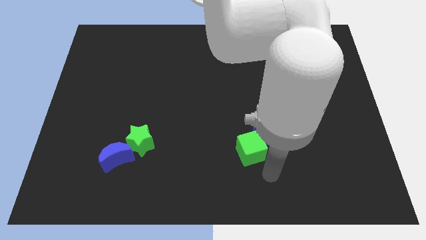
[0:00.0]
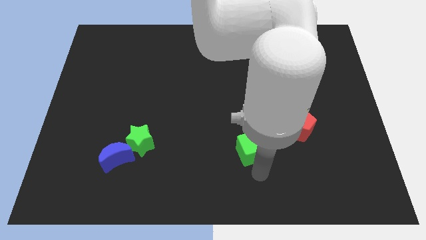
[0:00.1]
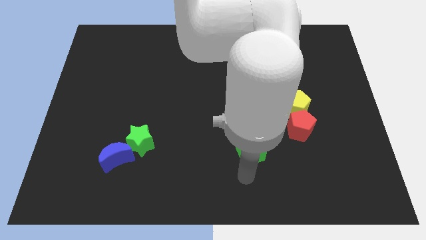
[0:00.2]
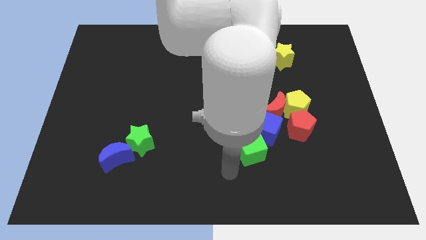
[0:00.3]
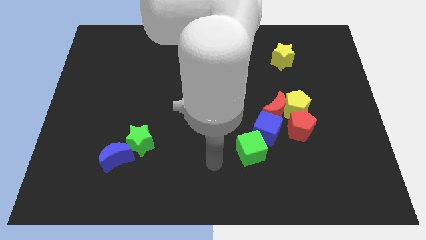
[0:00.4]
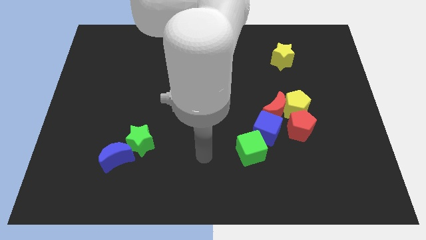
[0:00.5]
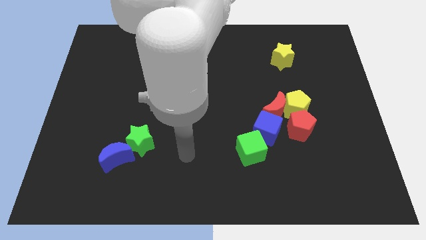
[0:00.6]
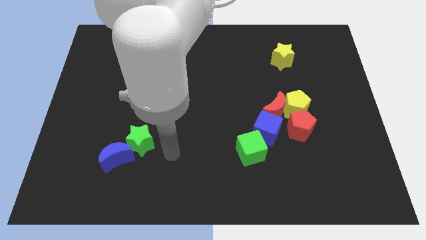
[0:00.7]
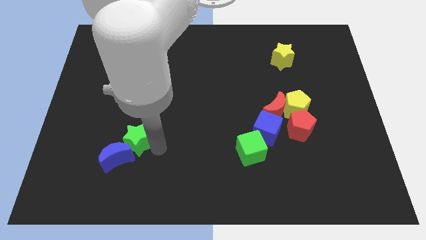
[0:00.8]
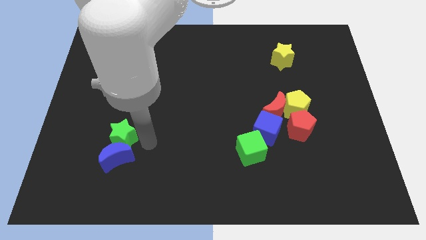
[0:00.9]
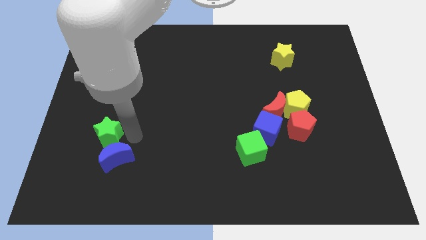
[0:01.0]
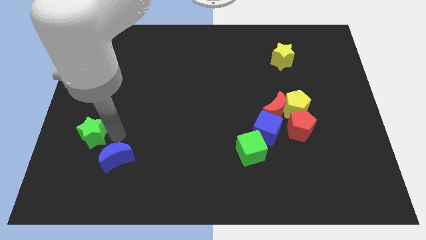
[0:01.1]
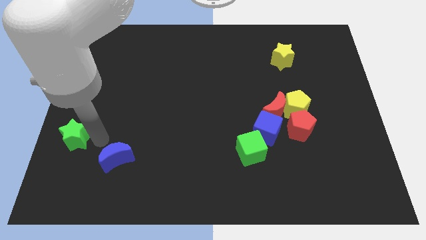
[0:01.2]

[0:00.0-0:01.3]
move the blue moon away from the green star

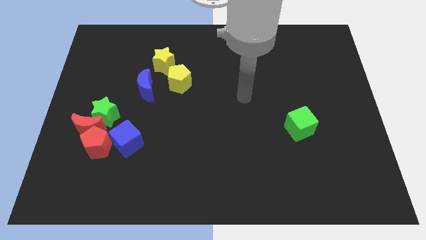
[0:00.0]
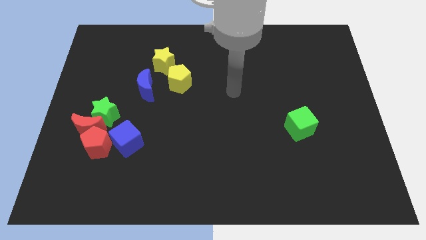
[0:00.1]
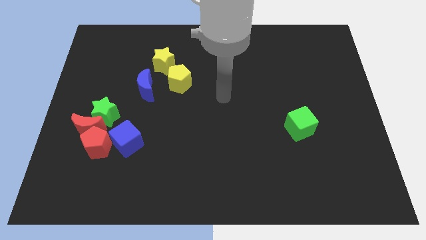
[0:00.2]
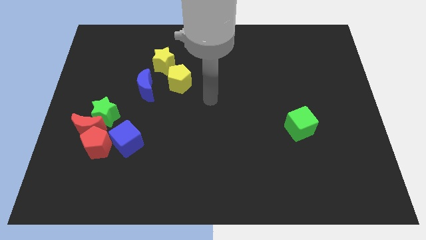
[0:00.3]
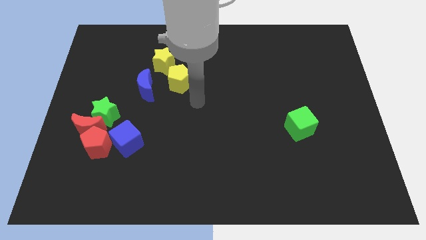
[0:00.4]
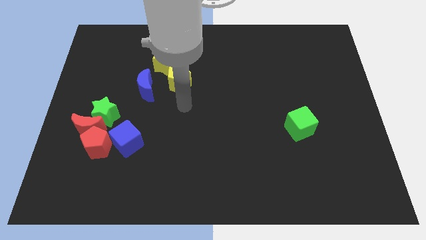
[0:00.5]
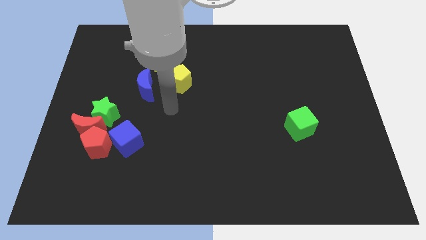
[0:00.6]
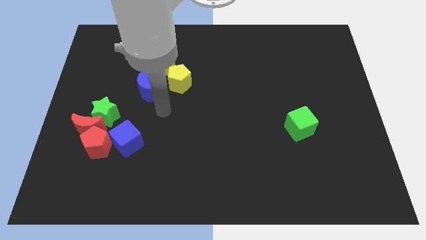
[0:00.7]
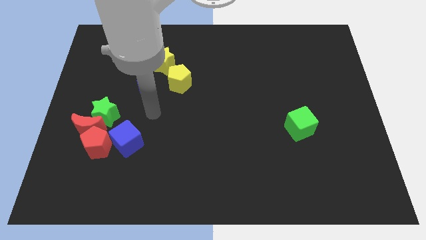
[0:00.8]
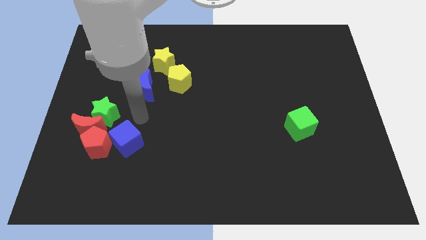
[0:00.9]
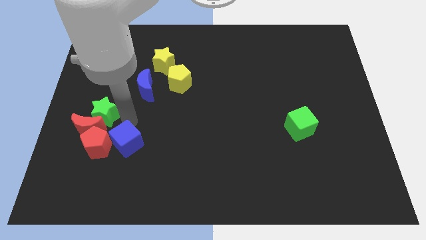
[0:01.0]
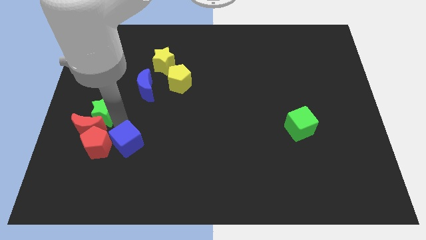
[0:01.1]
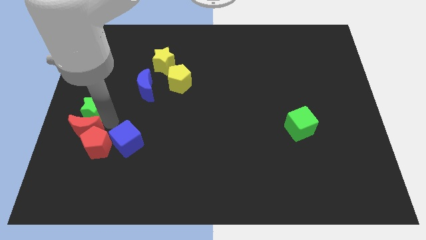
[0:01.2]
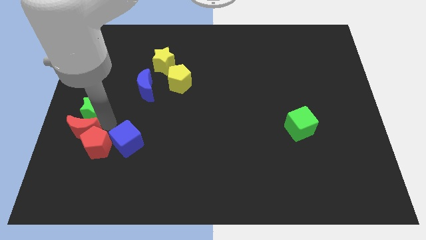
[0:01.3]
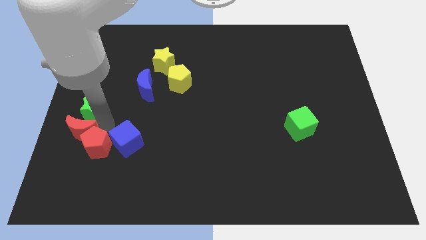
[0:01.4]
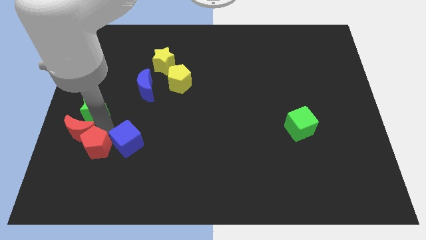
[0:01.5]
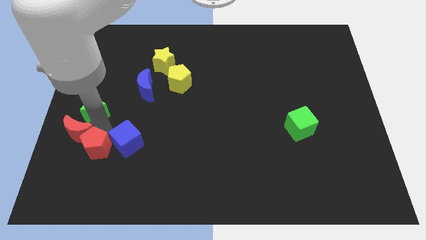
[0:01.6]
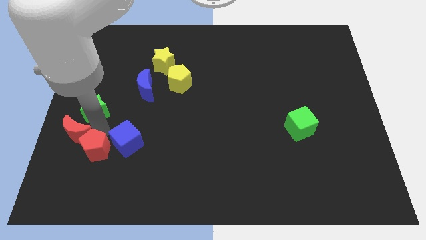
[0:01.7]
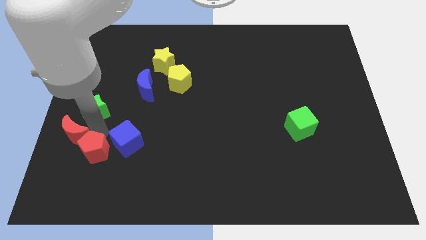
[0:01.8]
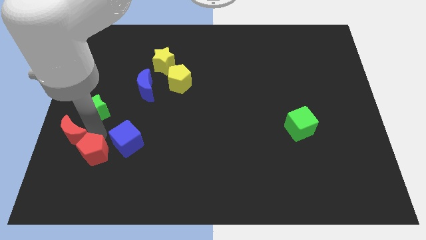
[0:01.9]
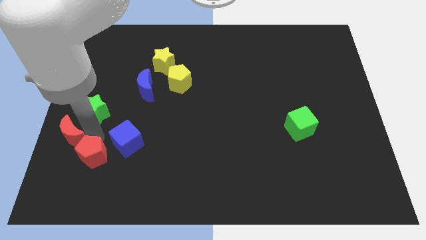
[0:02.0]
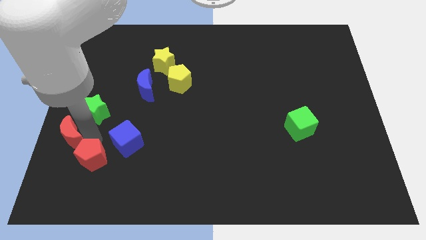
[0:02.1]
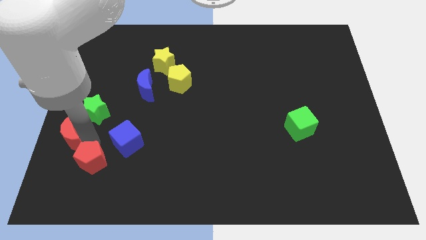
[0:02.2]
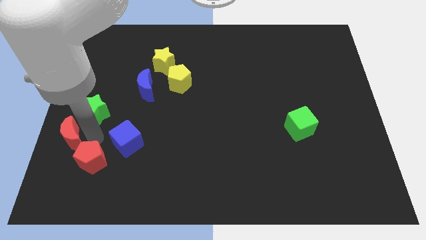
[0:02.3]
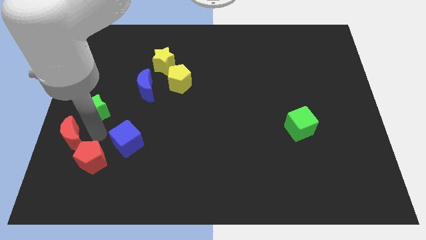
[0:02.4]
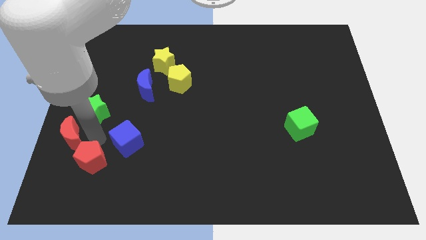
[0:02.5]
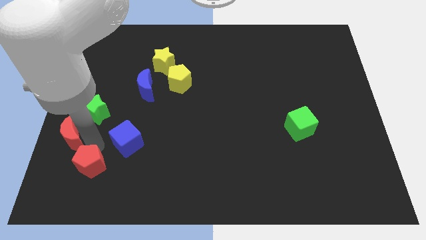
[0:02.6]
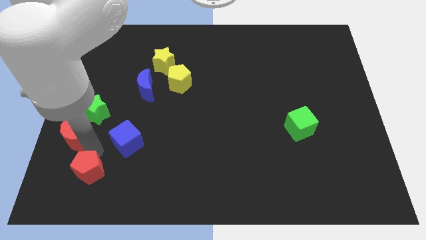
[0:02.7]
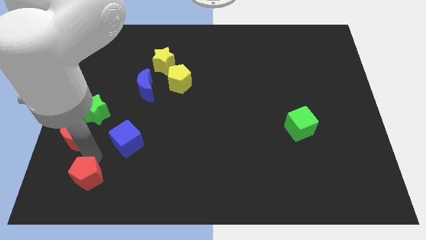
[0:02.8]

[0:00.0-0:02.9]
move the red pentagon away from the red moon, blue cube, and green star

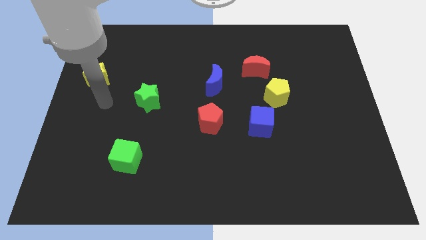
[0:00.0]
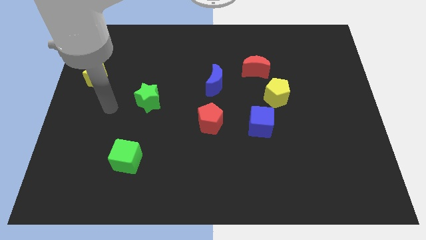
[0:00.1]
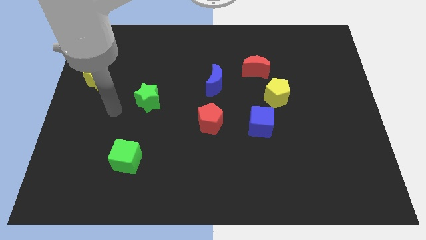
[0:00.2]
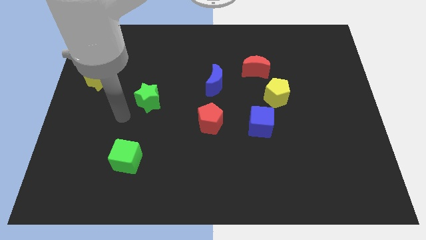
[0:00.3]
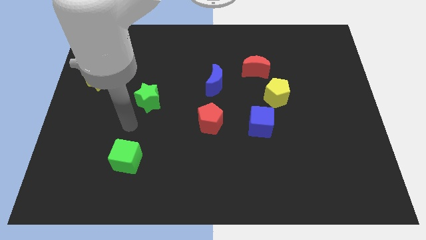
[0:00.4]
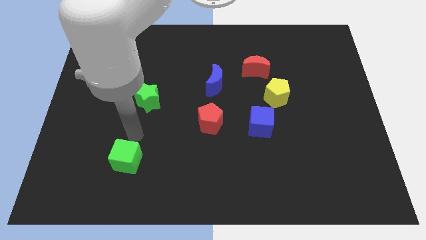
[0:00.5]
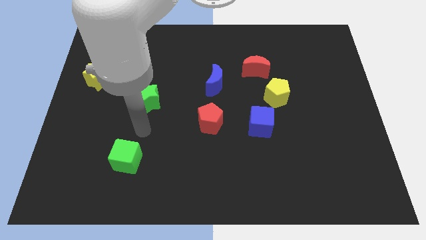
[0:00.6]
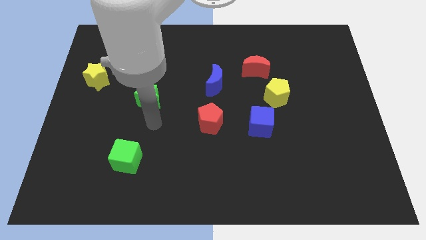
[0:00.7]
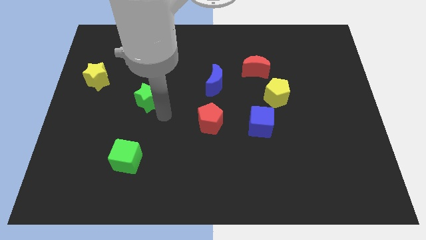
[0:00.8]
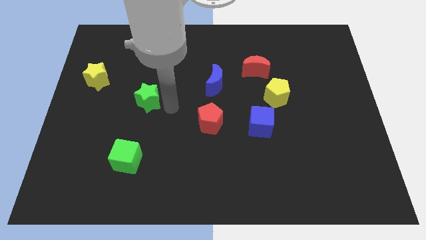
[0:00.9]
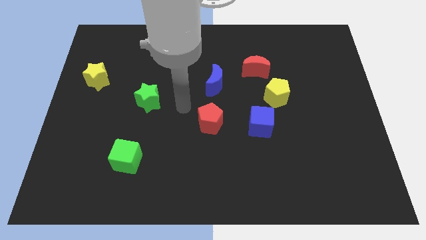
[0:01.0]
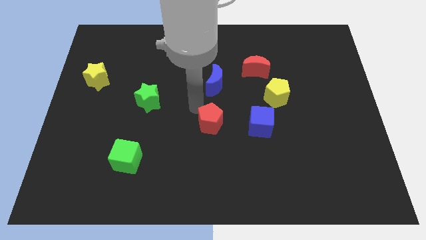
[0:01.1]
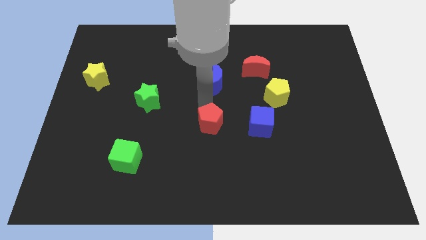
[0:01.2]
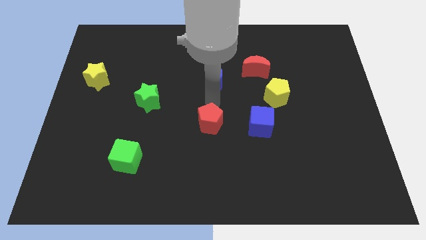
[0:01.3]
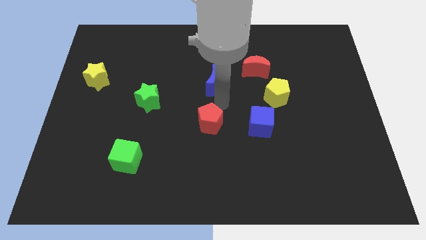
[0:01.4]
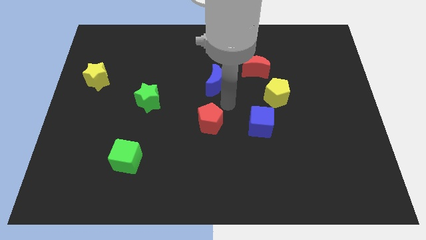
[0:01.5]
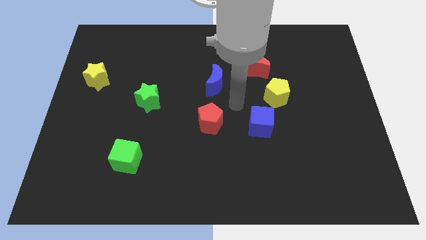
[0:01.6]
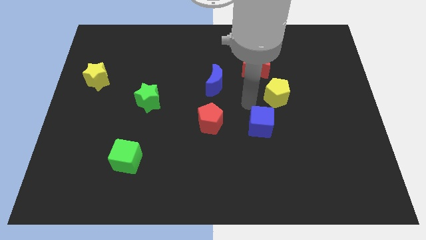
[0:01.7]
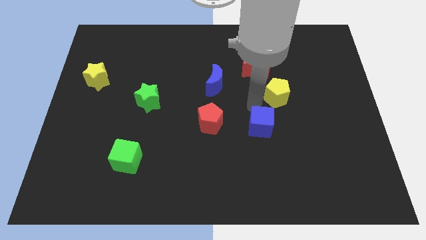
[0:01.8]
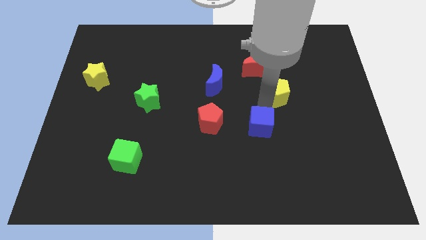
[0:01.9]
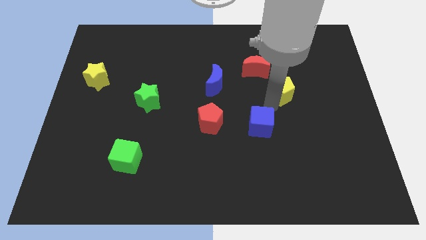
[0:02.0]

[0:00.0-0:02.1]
separate the blue cube from the yellow pentagon

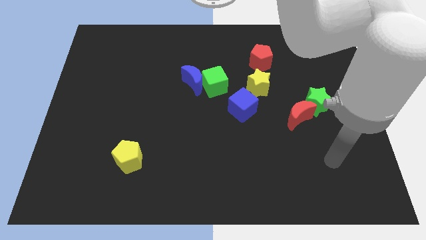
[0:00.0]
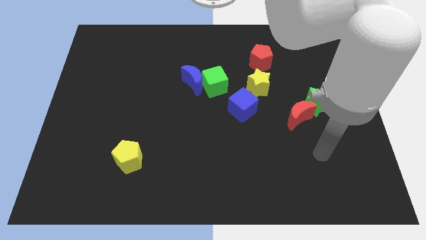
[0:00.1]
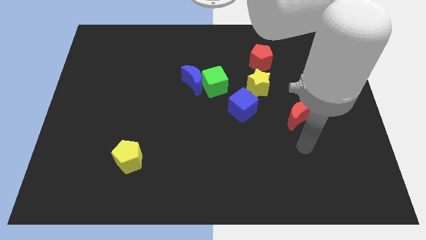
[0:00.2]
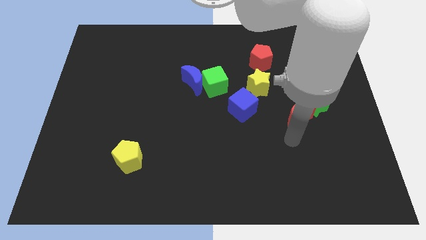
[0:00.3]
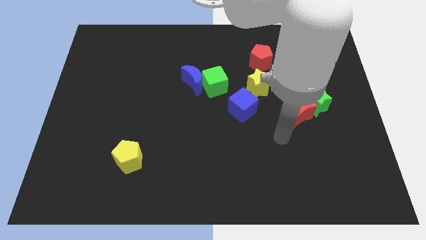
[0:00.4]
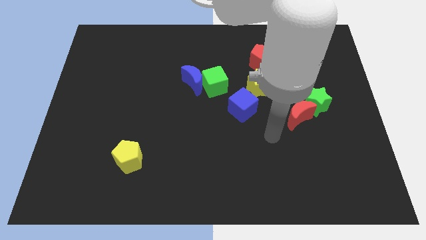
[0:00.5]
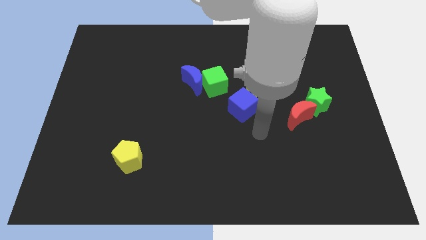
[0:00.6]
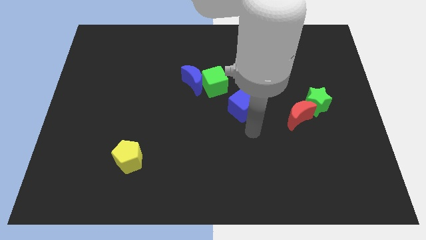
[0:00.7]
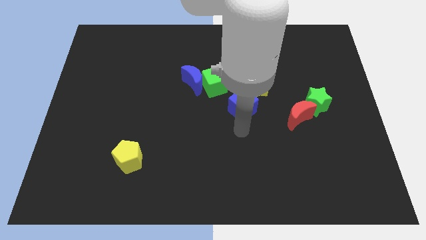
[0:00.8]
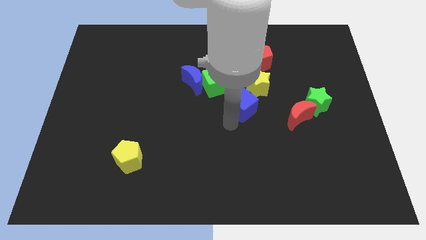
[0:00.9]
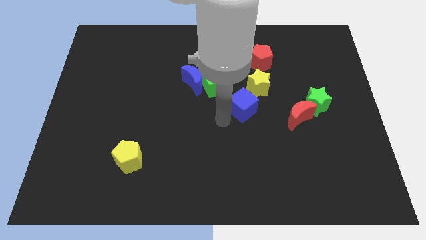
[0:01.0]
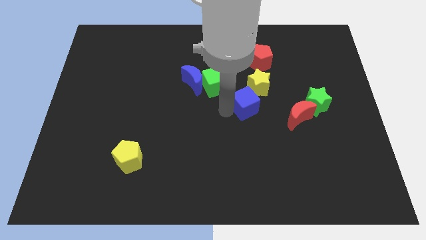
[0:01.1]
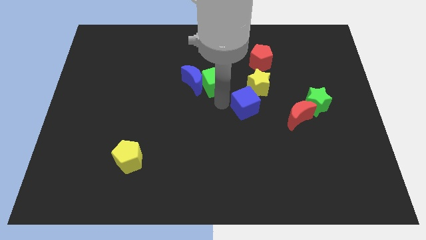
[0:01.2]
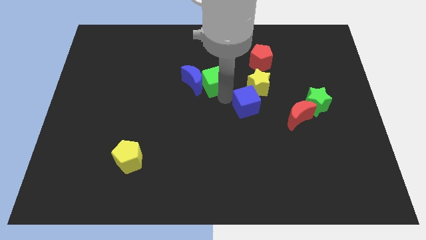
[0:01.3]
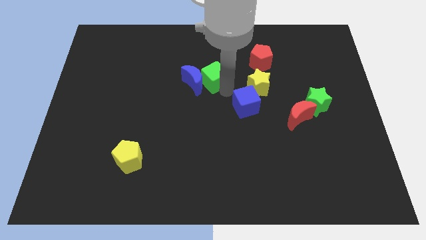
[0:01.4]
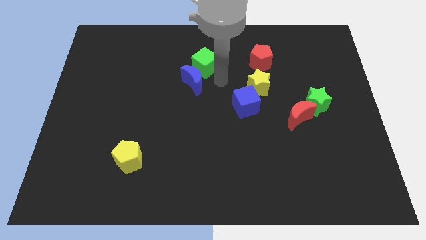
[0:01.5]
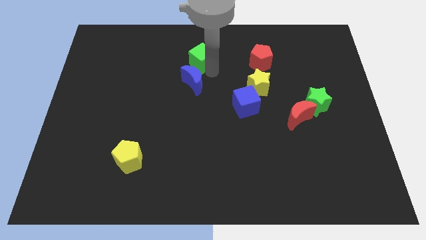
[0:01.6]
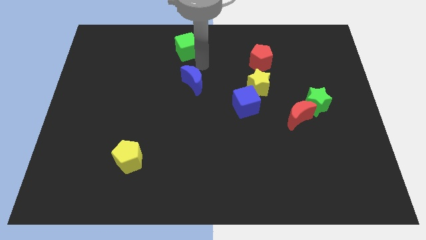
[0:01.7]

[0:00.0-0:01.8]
move the blue moon away from the green cube

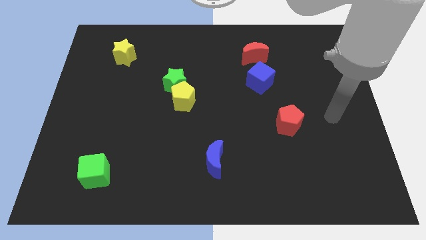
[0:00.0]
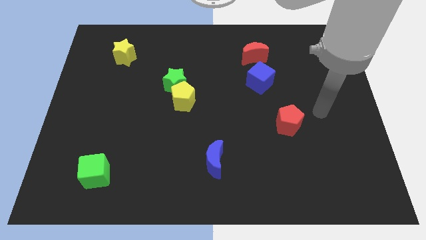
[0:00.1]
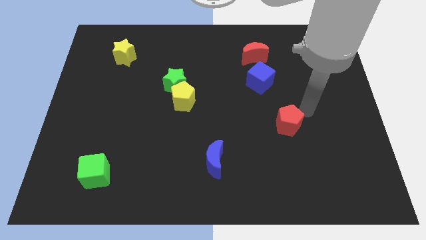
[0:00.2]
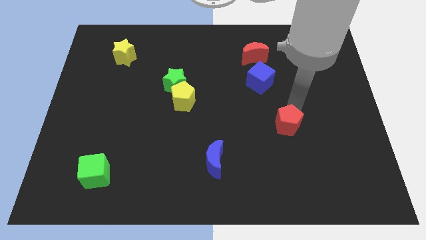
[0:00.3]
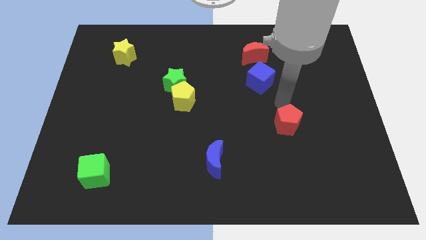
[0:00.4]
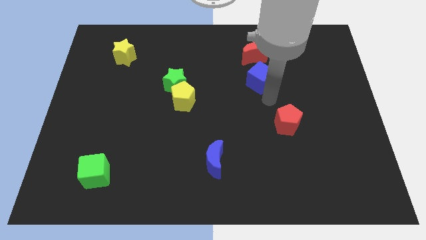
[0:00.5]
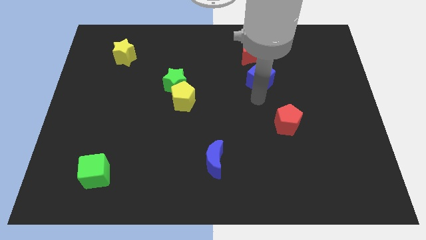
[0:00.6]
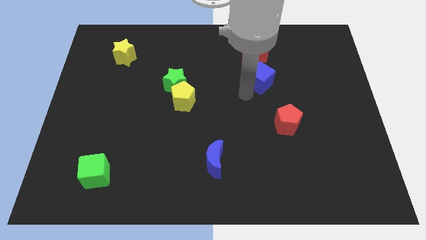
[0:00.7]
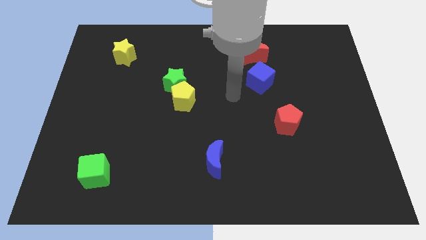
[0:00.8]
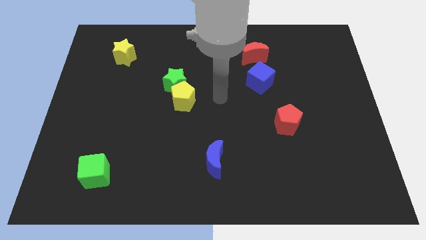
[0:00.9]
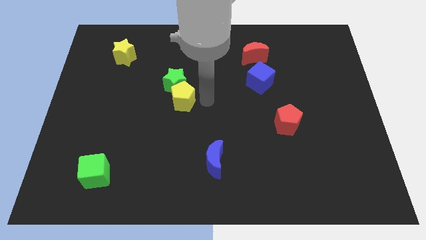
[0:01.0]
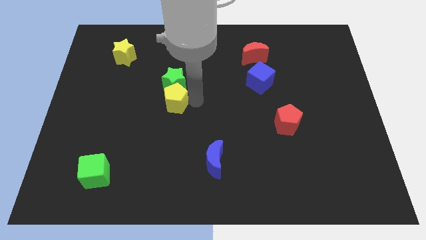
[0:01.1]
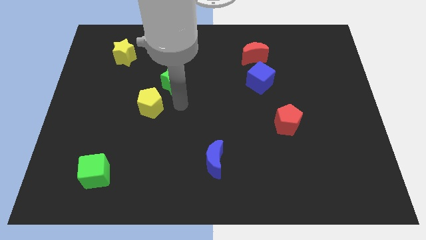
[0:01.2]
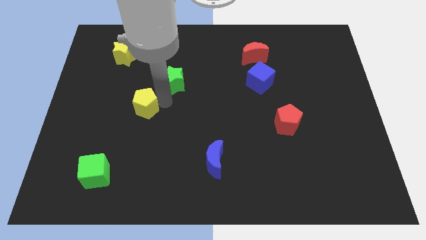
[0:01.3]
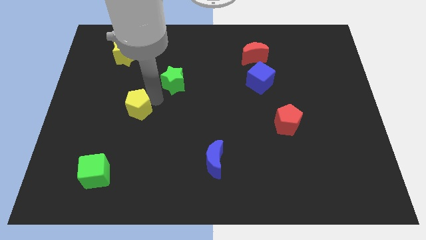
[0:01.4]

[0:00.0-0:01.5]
pull the green star apart from the yellow pentagon
